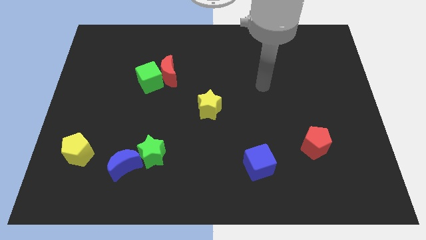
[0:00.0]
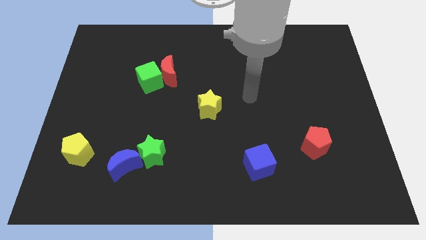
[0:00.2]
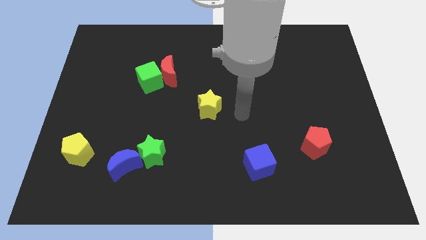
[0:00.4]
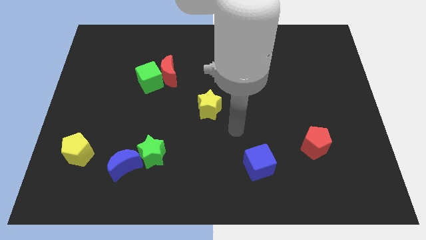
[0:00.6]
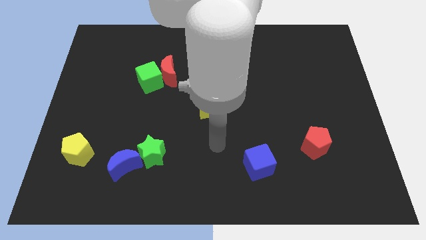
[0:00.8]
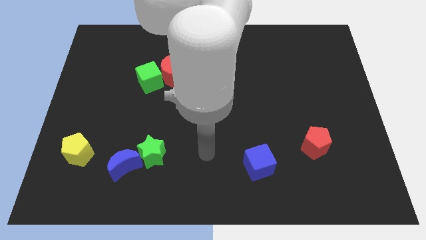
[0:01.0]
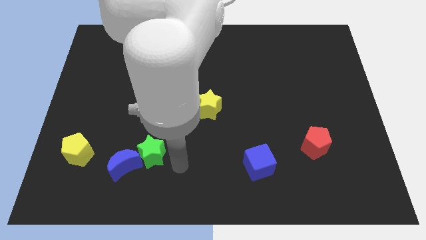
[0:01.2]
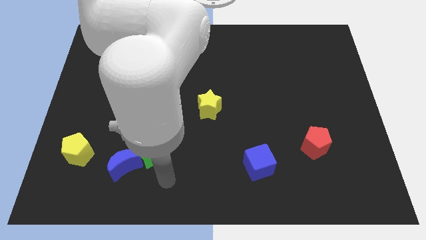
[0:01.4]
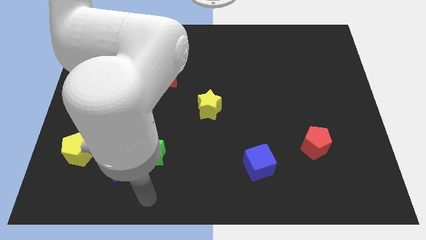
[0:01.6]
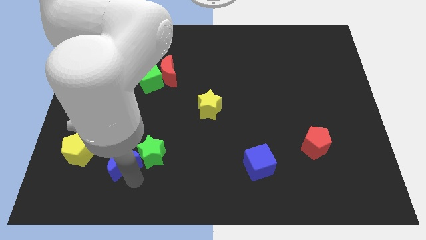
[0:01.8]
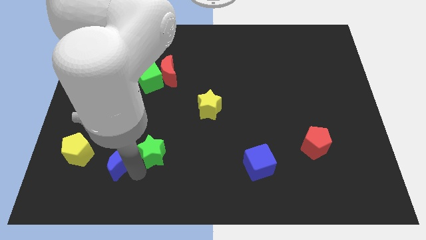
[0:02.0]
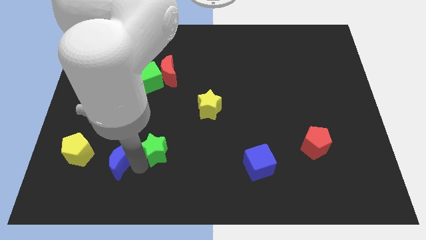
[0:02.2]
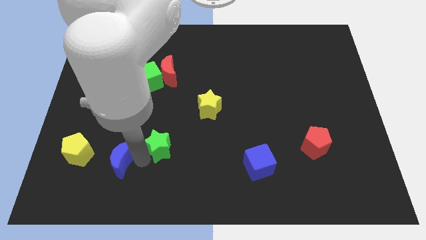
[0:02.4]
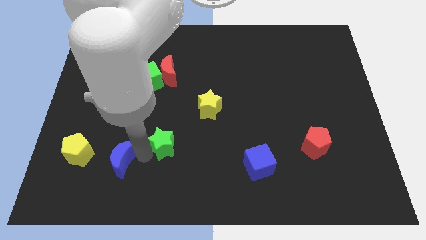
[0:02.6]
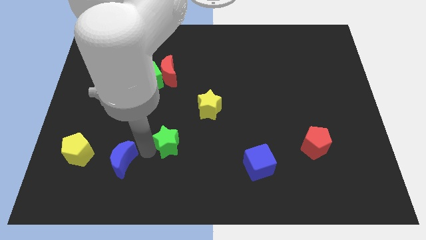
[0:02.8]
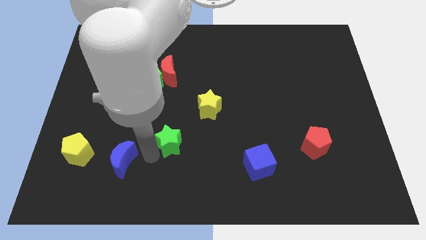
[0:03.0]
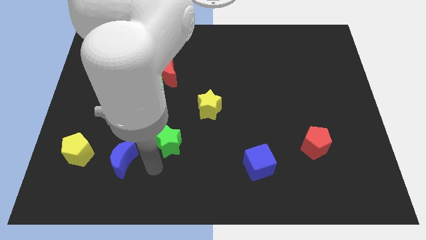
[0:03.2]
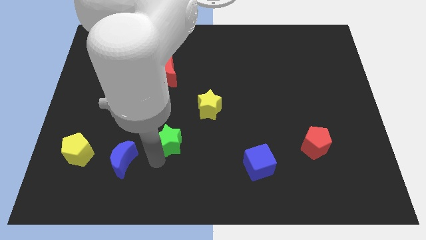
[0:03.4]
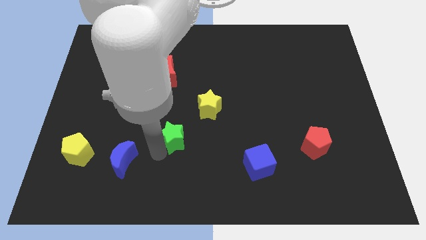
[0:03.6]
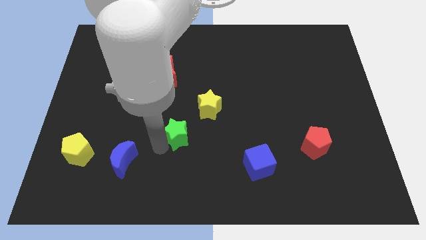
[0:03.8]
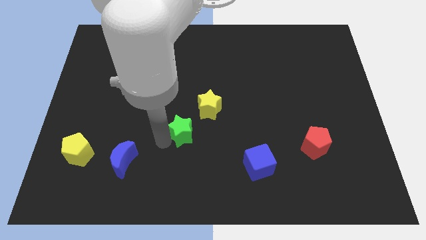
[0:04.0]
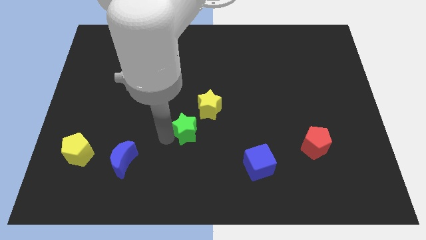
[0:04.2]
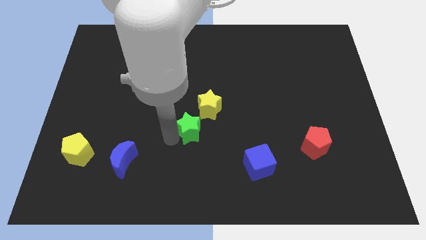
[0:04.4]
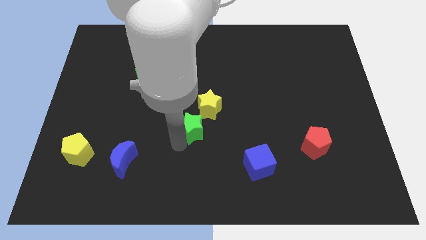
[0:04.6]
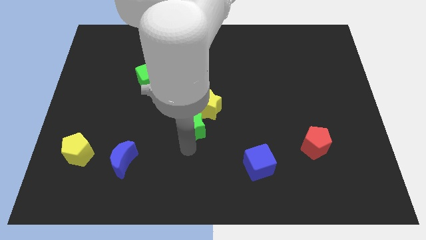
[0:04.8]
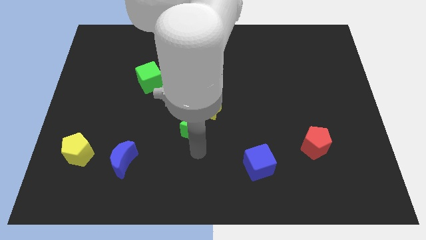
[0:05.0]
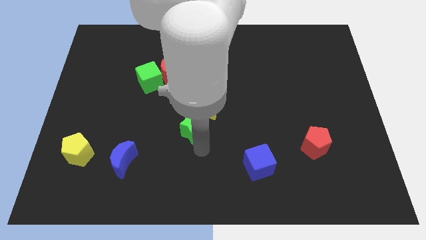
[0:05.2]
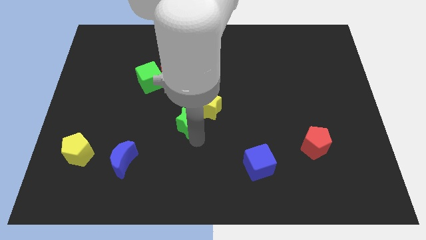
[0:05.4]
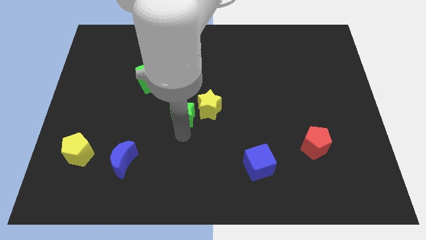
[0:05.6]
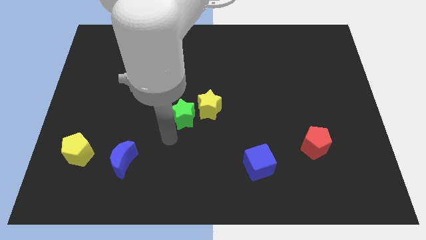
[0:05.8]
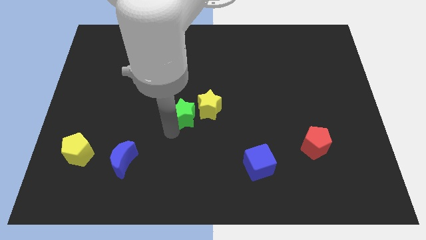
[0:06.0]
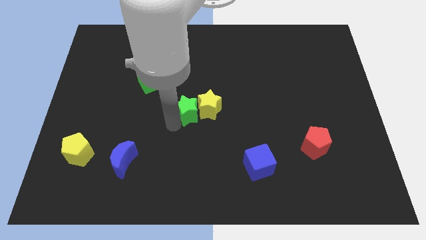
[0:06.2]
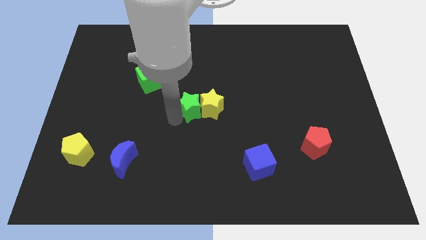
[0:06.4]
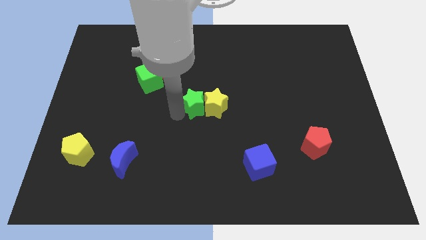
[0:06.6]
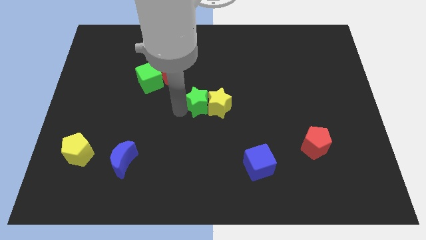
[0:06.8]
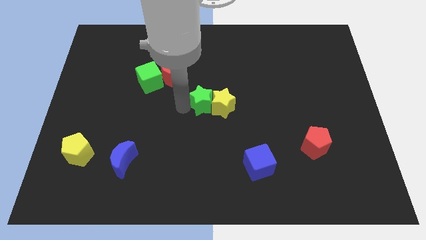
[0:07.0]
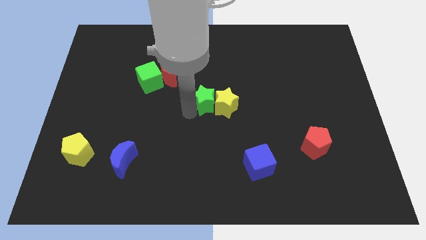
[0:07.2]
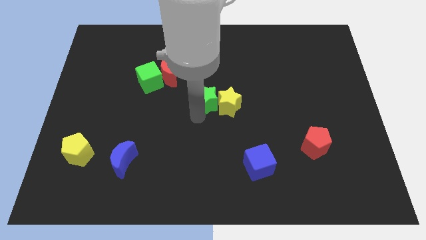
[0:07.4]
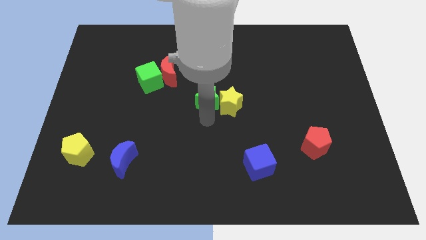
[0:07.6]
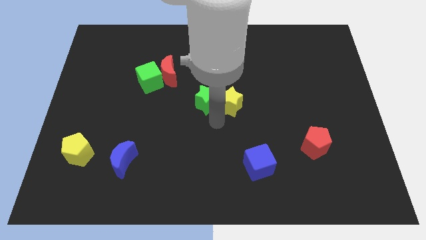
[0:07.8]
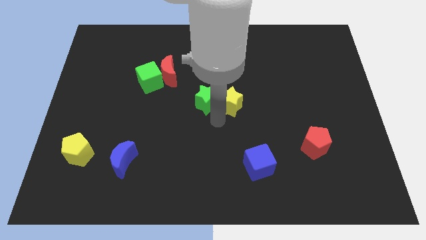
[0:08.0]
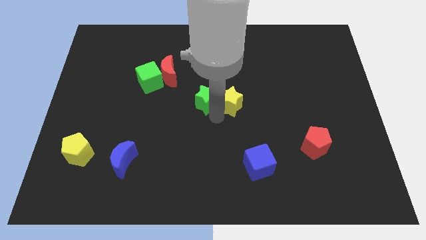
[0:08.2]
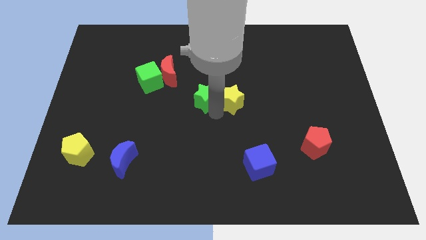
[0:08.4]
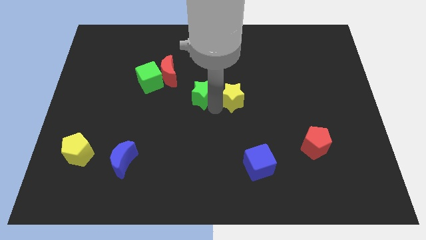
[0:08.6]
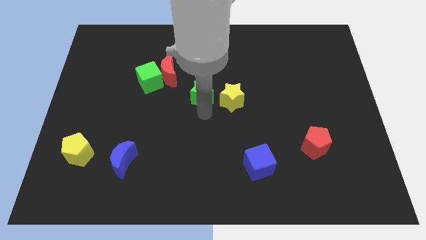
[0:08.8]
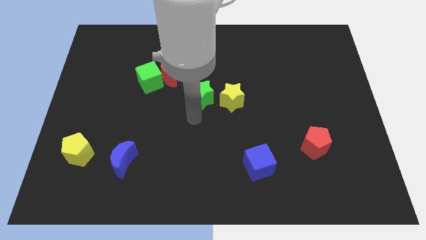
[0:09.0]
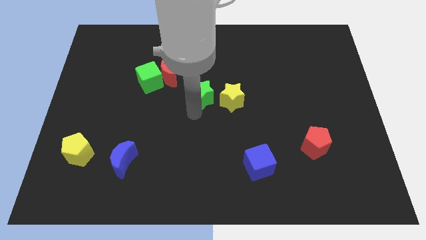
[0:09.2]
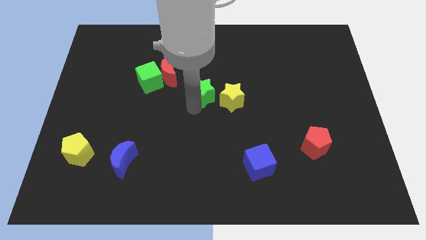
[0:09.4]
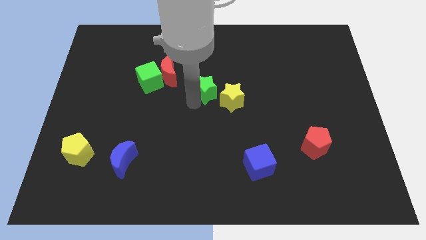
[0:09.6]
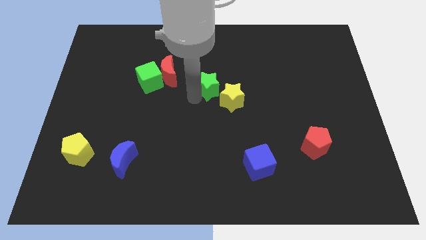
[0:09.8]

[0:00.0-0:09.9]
move the green star right of the red moon

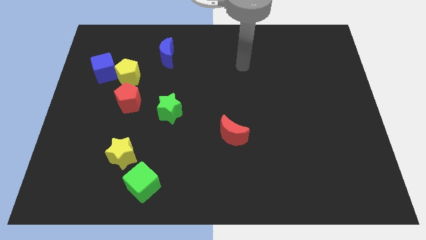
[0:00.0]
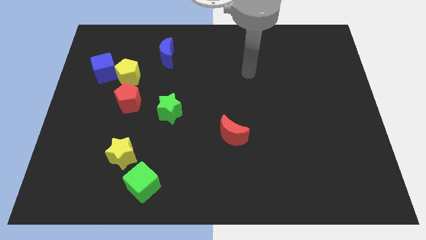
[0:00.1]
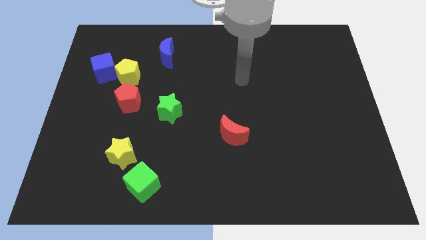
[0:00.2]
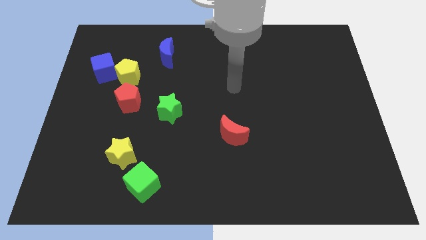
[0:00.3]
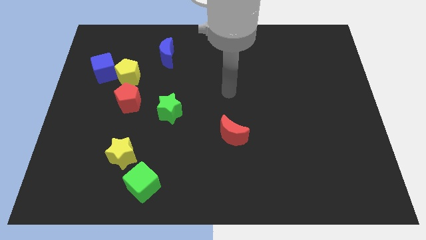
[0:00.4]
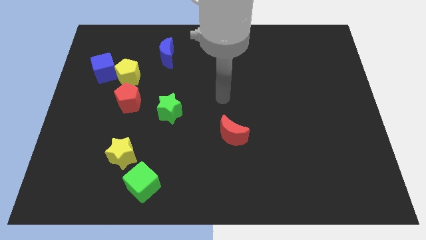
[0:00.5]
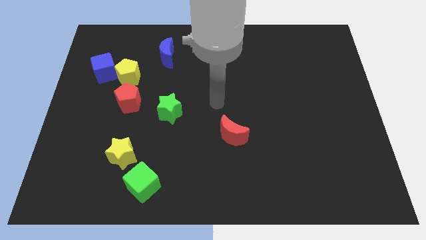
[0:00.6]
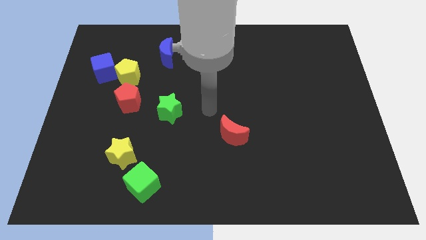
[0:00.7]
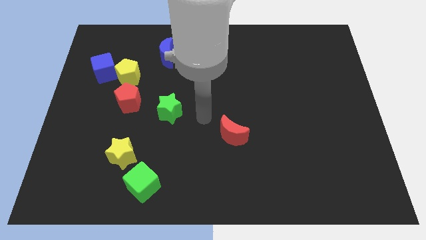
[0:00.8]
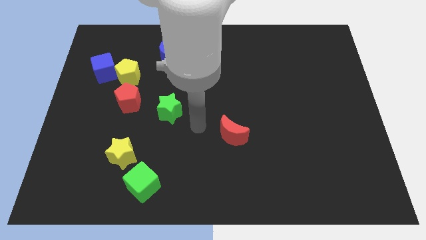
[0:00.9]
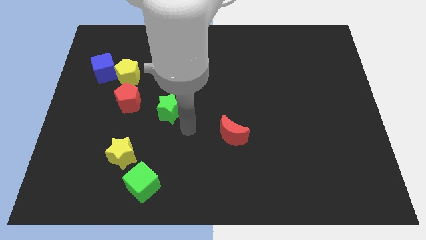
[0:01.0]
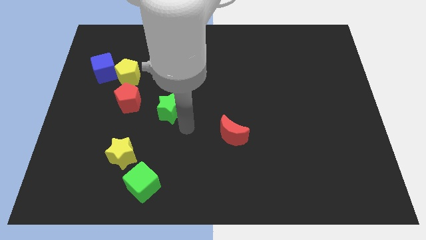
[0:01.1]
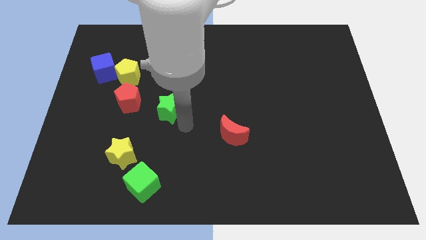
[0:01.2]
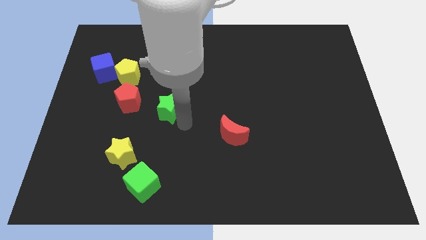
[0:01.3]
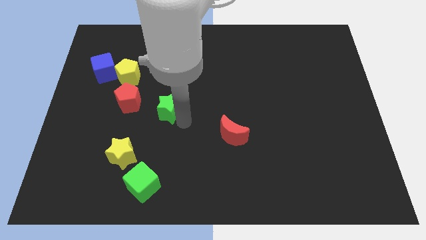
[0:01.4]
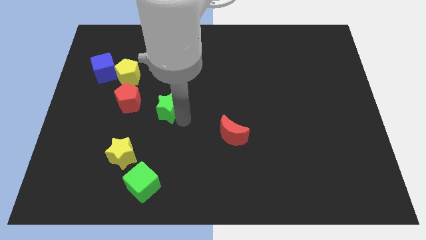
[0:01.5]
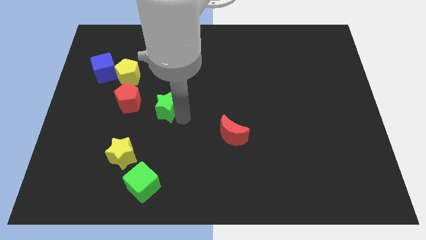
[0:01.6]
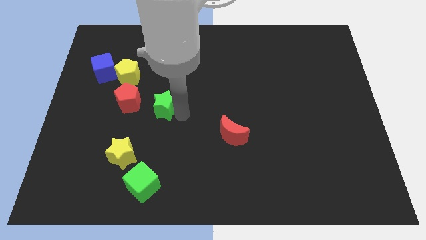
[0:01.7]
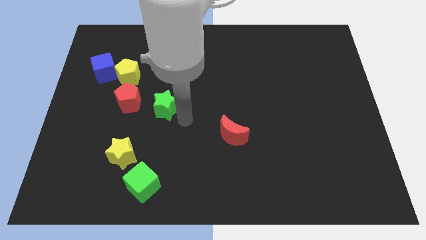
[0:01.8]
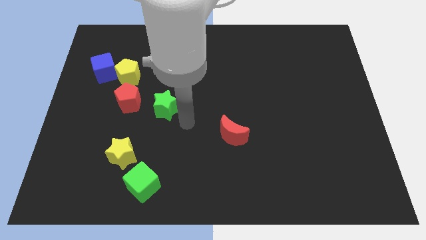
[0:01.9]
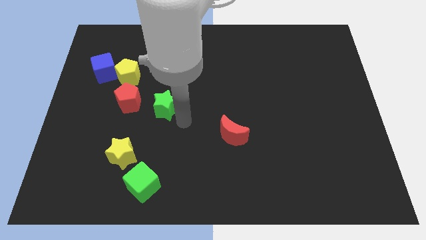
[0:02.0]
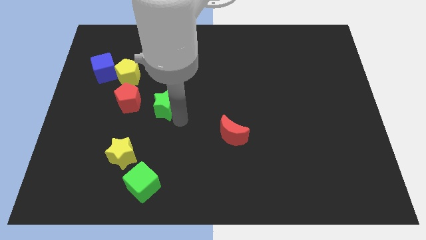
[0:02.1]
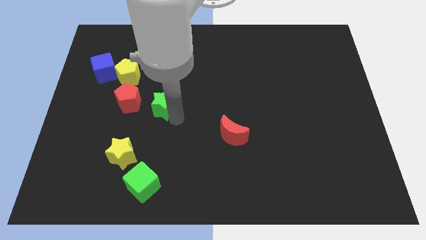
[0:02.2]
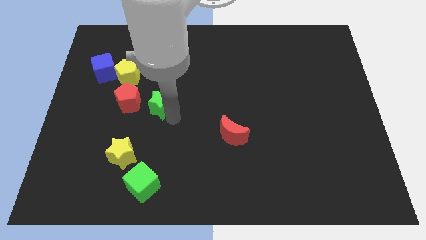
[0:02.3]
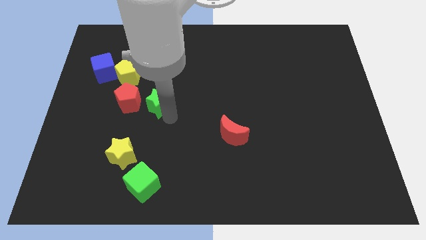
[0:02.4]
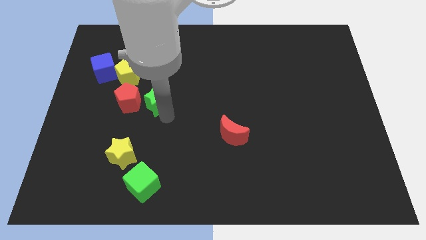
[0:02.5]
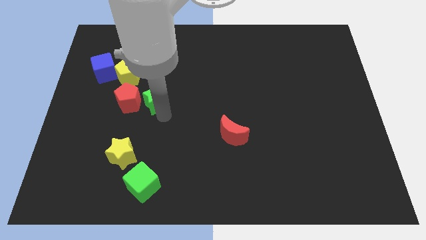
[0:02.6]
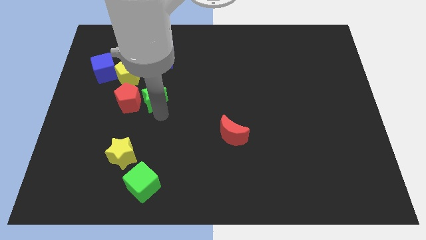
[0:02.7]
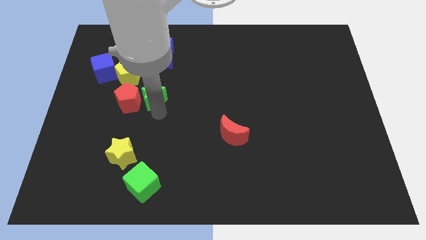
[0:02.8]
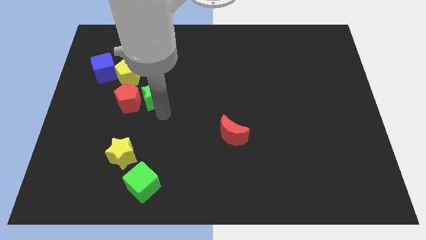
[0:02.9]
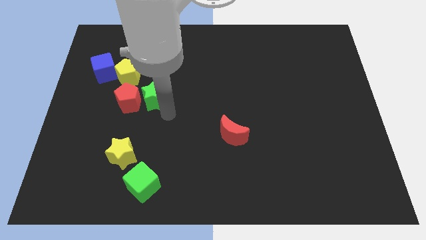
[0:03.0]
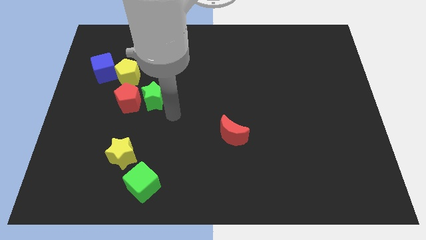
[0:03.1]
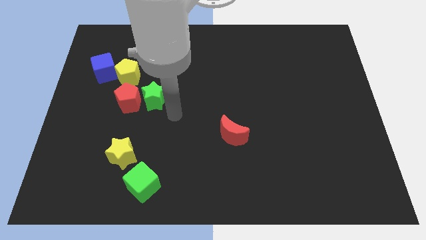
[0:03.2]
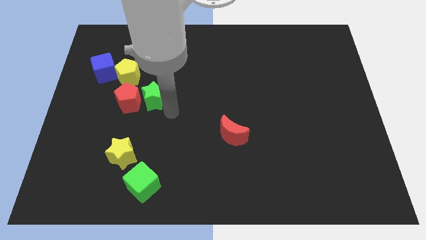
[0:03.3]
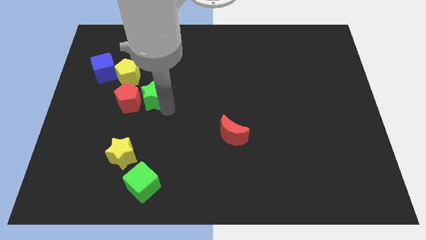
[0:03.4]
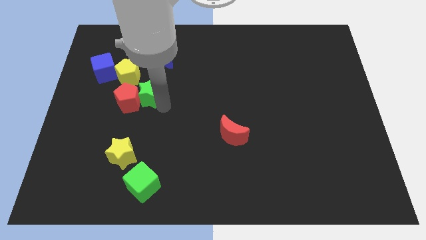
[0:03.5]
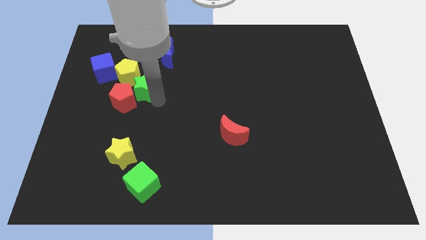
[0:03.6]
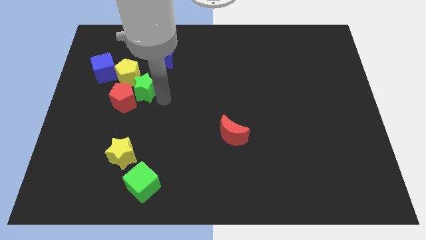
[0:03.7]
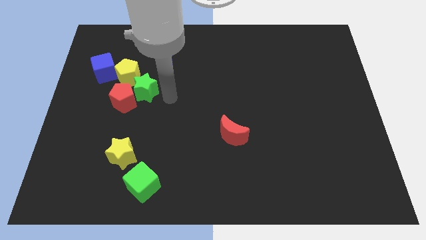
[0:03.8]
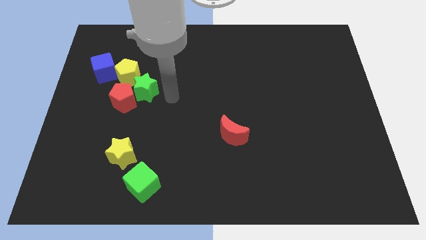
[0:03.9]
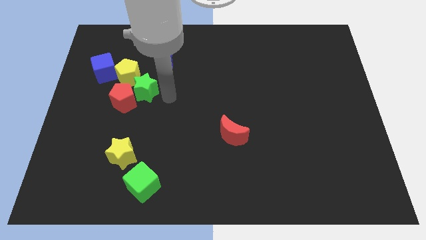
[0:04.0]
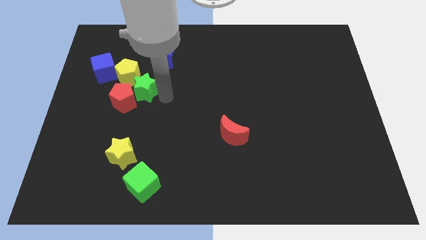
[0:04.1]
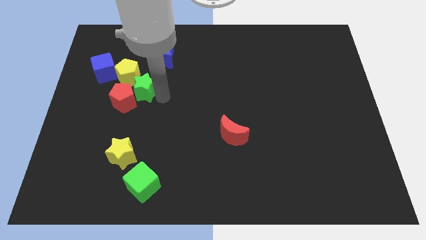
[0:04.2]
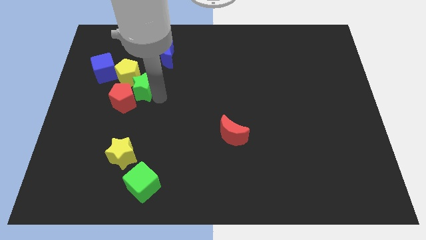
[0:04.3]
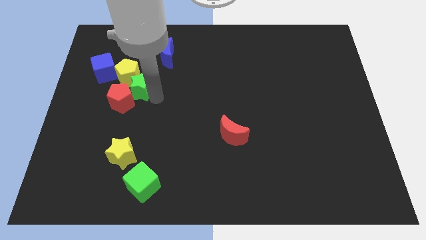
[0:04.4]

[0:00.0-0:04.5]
push the green star diagonally down and to the right of the blue cube
